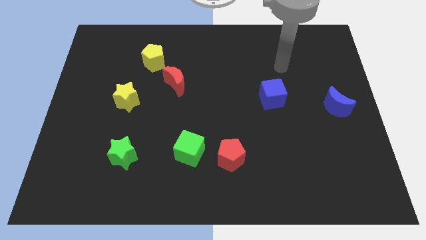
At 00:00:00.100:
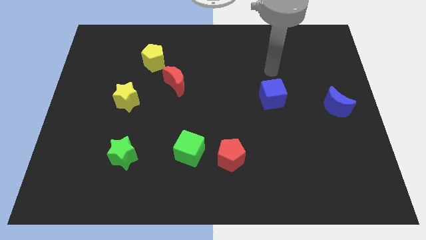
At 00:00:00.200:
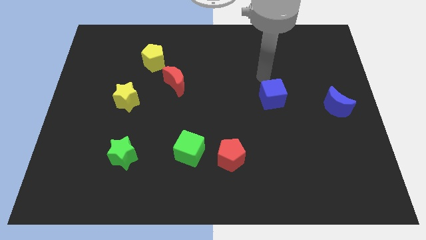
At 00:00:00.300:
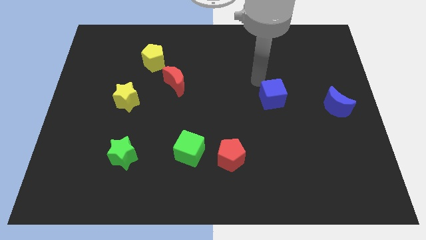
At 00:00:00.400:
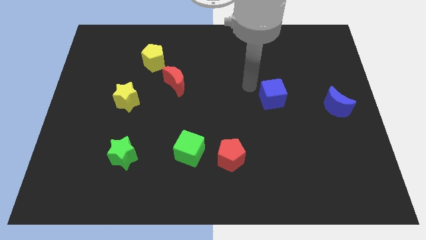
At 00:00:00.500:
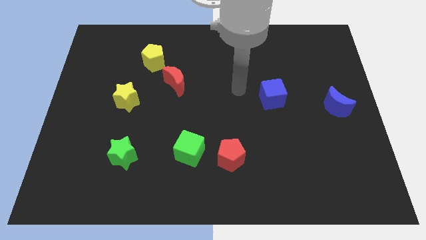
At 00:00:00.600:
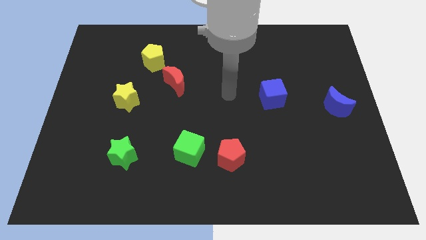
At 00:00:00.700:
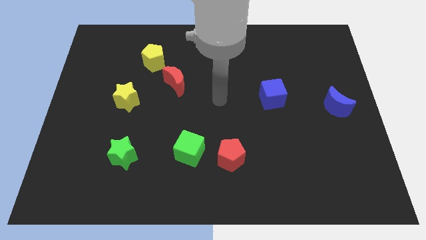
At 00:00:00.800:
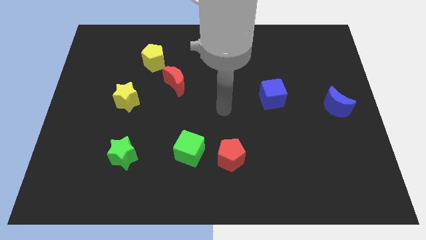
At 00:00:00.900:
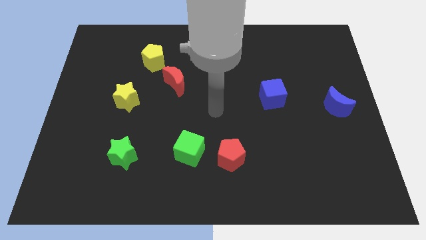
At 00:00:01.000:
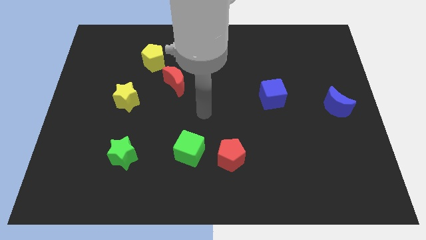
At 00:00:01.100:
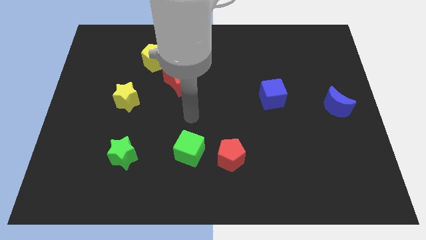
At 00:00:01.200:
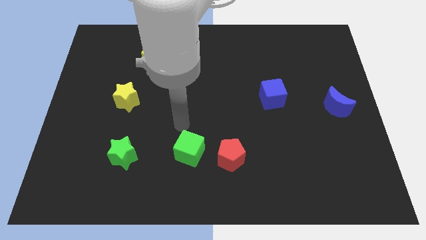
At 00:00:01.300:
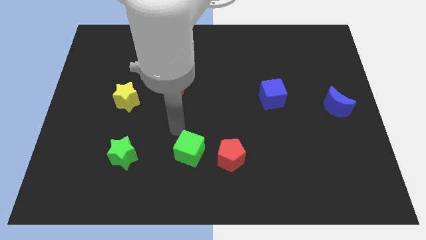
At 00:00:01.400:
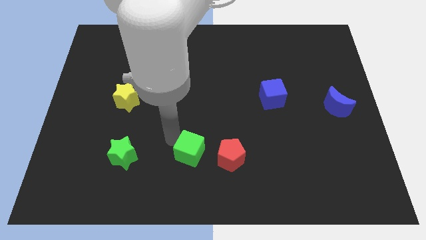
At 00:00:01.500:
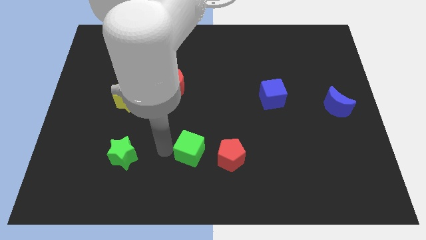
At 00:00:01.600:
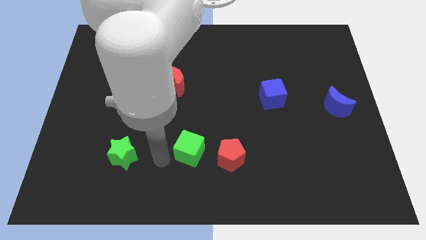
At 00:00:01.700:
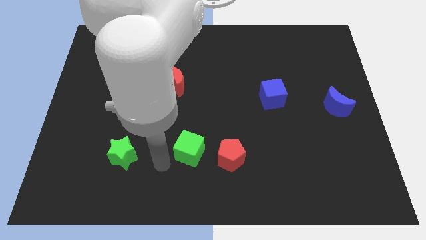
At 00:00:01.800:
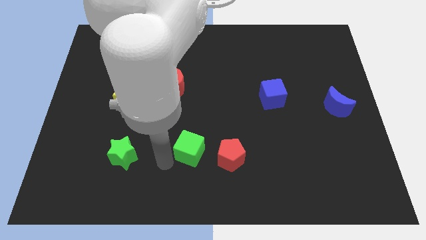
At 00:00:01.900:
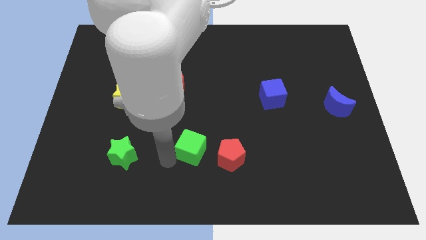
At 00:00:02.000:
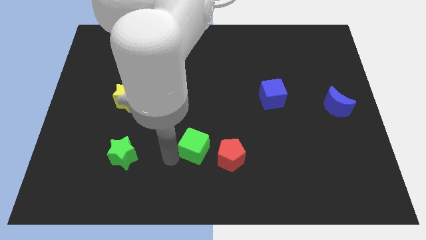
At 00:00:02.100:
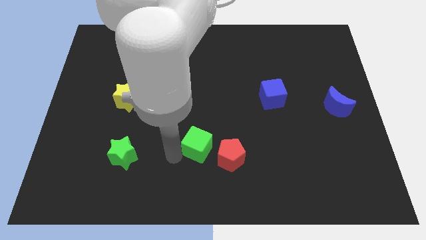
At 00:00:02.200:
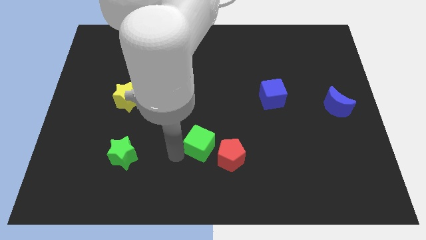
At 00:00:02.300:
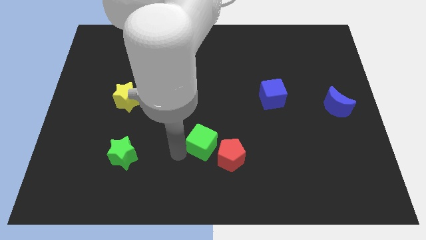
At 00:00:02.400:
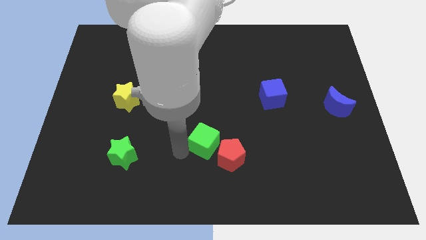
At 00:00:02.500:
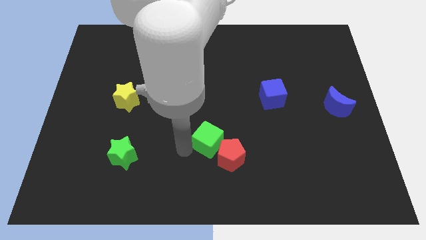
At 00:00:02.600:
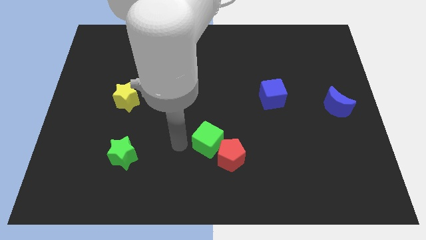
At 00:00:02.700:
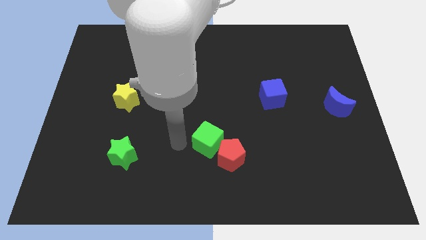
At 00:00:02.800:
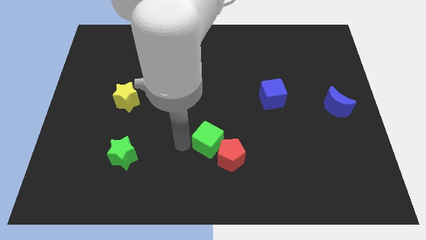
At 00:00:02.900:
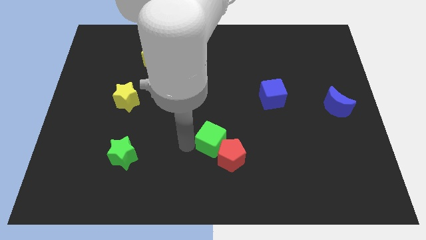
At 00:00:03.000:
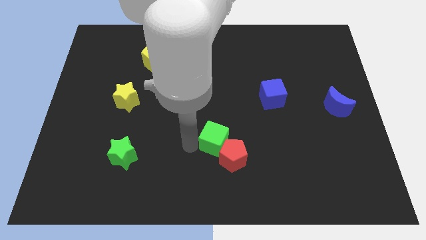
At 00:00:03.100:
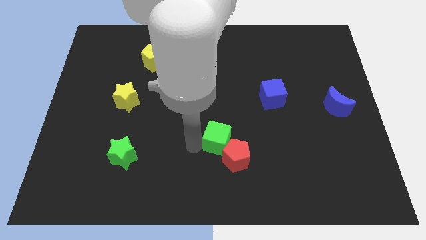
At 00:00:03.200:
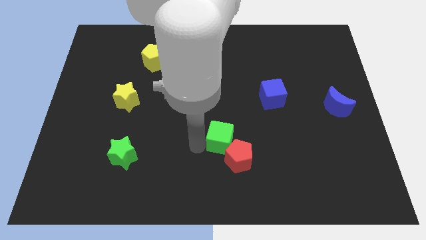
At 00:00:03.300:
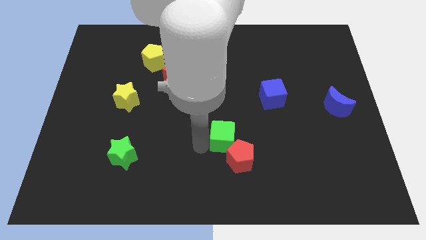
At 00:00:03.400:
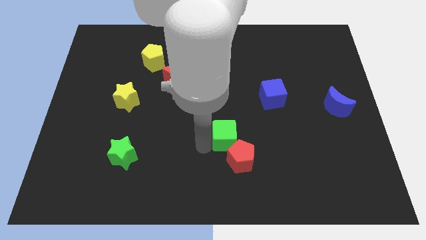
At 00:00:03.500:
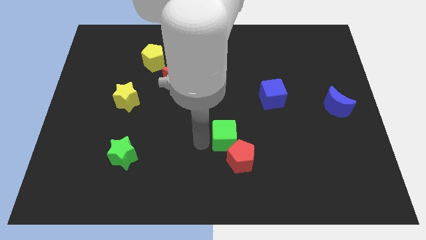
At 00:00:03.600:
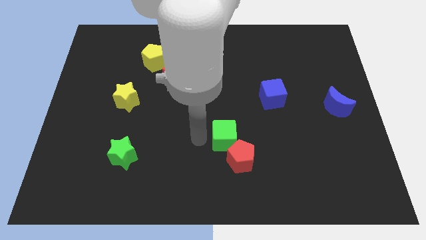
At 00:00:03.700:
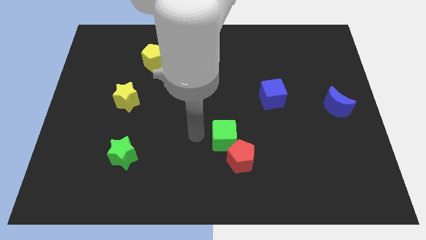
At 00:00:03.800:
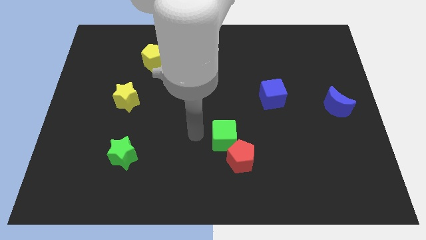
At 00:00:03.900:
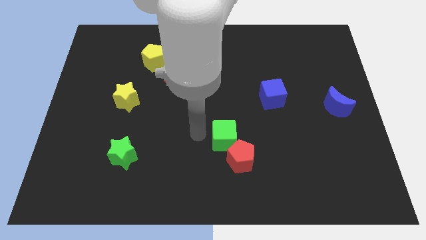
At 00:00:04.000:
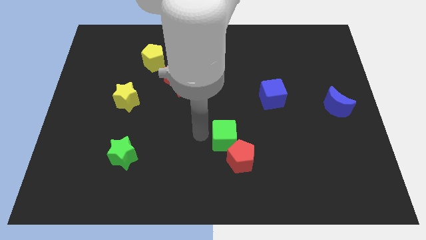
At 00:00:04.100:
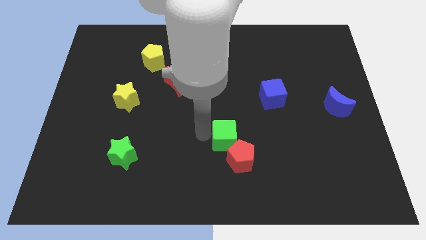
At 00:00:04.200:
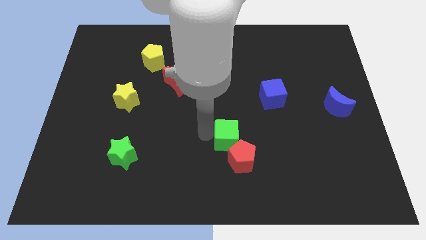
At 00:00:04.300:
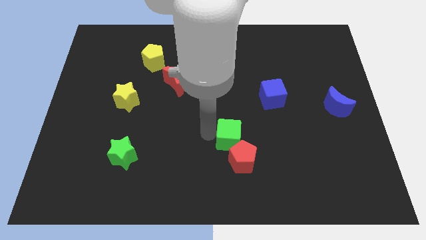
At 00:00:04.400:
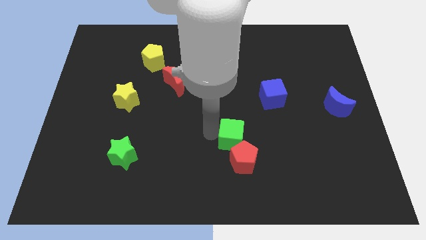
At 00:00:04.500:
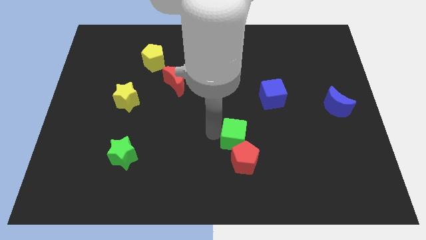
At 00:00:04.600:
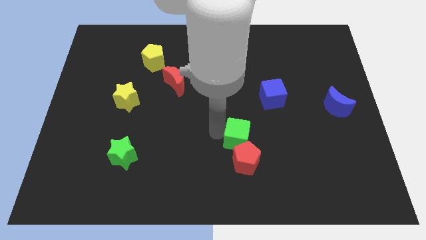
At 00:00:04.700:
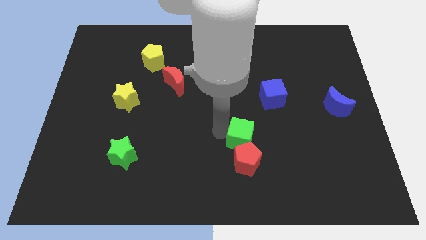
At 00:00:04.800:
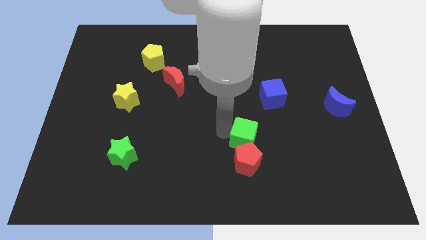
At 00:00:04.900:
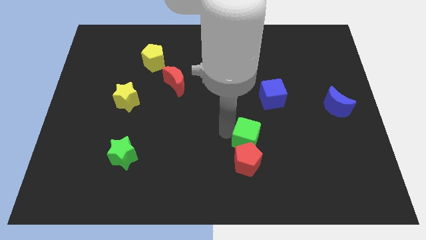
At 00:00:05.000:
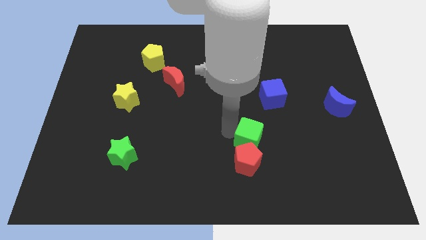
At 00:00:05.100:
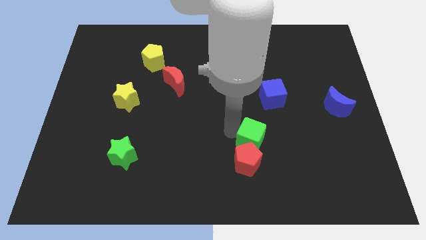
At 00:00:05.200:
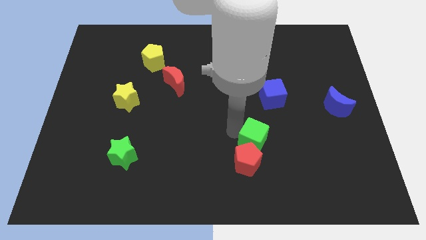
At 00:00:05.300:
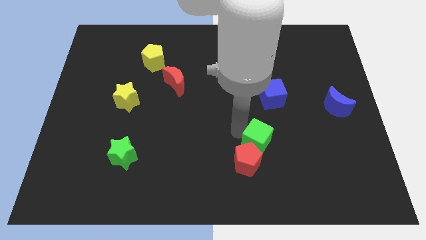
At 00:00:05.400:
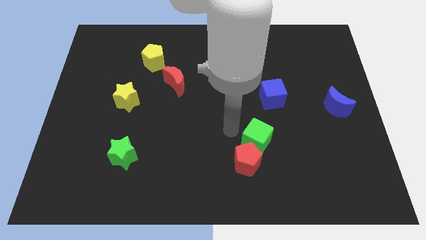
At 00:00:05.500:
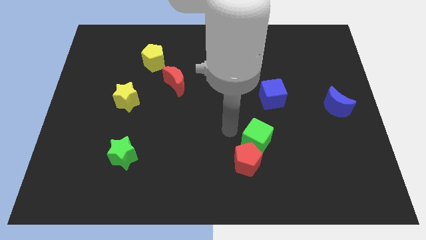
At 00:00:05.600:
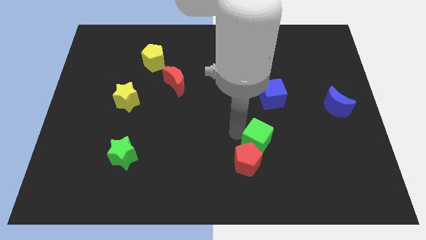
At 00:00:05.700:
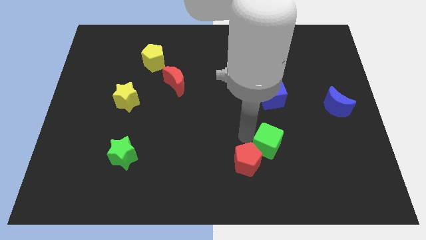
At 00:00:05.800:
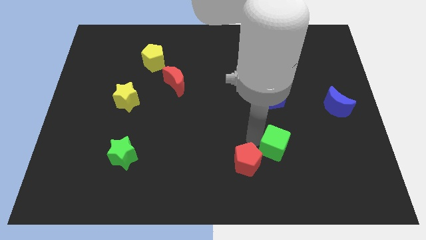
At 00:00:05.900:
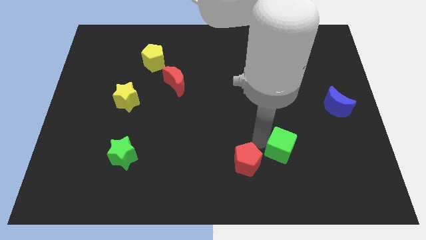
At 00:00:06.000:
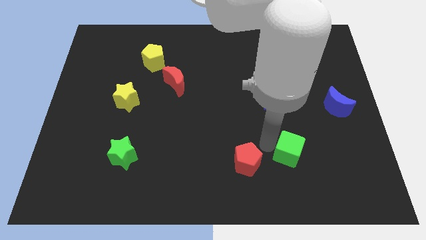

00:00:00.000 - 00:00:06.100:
push the green cube to the right

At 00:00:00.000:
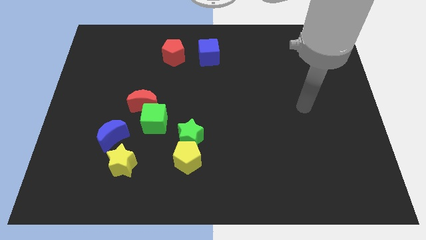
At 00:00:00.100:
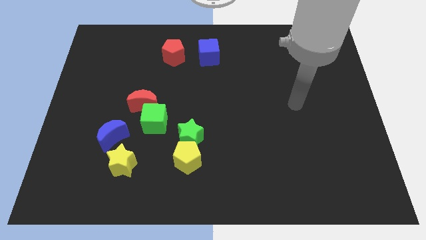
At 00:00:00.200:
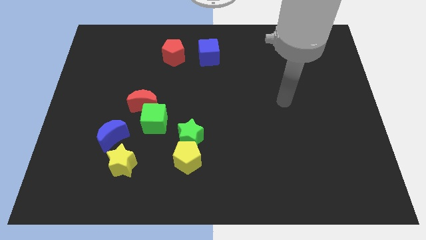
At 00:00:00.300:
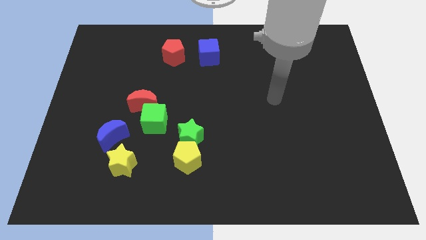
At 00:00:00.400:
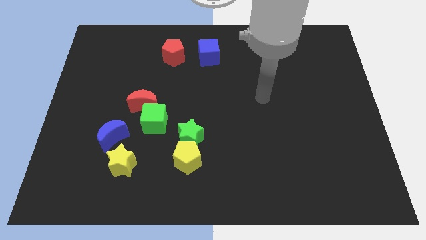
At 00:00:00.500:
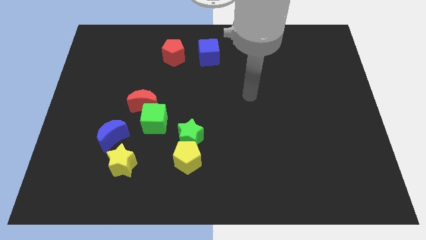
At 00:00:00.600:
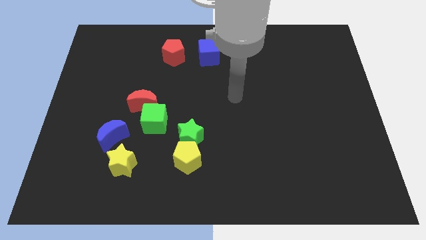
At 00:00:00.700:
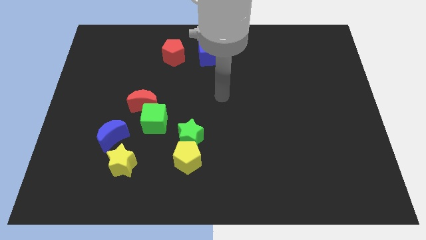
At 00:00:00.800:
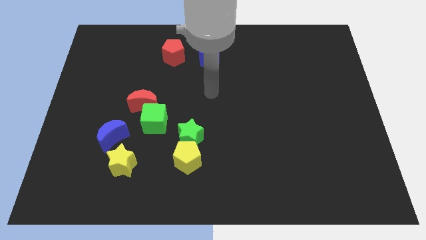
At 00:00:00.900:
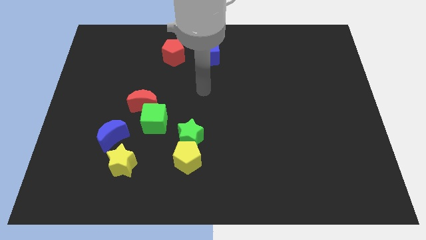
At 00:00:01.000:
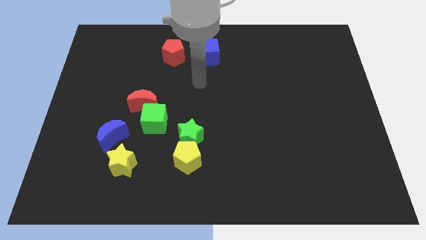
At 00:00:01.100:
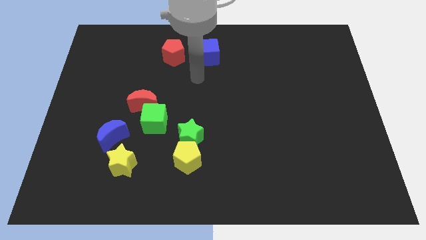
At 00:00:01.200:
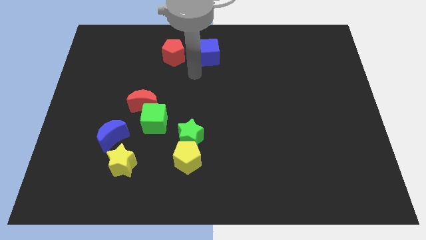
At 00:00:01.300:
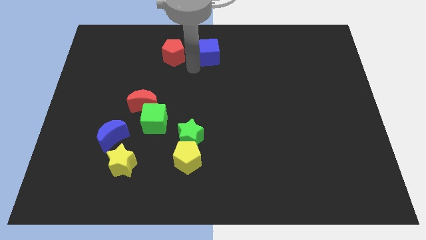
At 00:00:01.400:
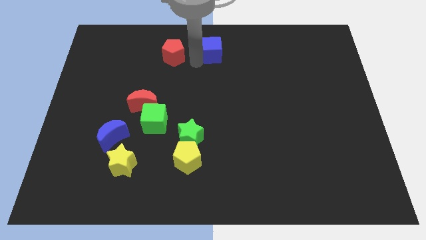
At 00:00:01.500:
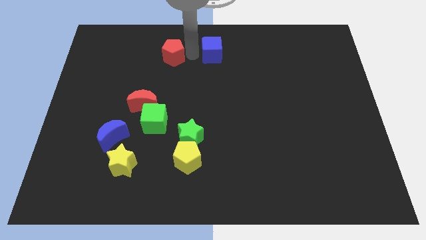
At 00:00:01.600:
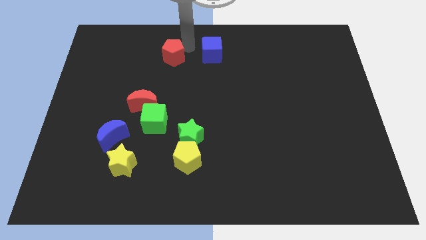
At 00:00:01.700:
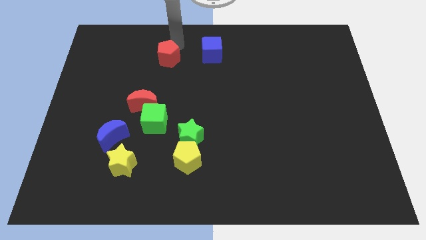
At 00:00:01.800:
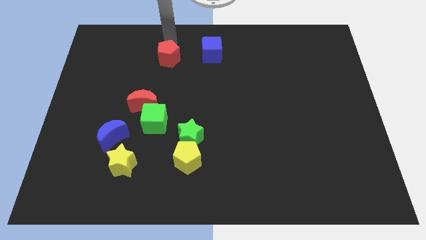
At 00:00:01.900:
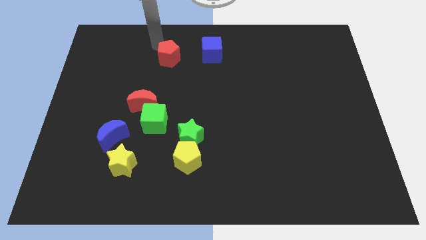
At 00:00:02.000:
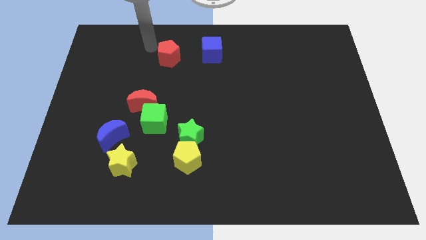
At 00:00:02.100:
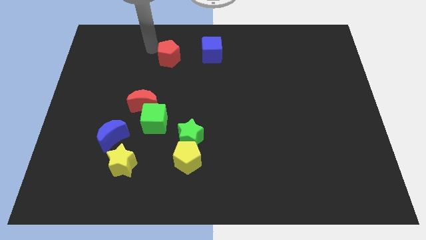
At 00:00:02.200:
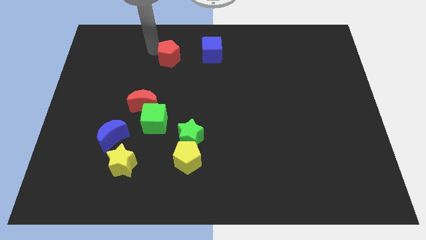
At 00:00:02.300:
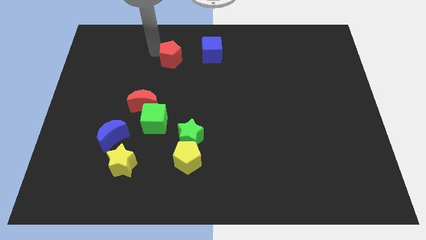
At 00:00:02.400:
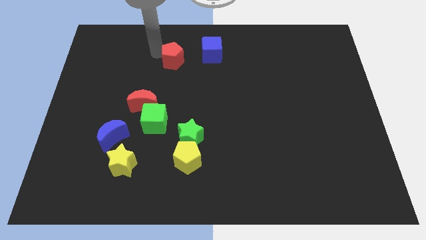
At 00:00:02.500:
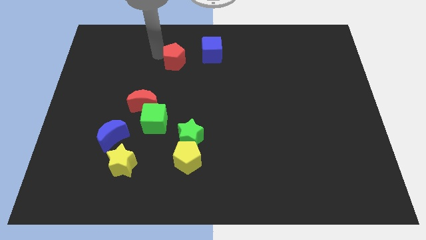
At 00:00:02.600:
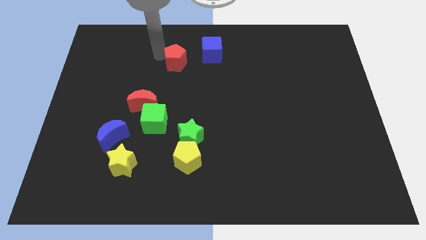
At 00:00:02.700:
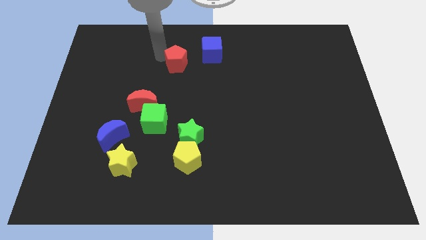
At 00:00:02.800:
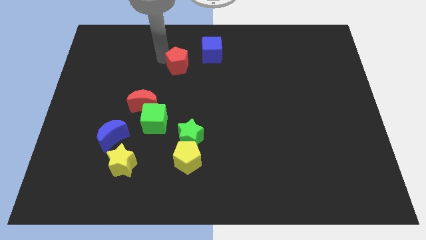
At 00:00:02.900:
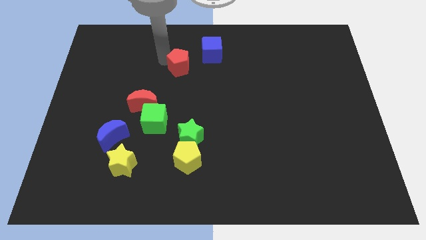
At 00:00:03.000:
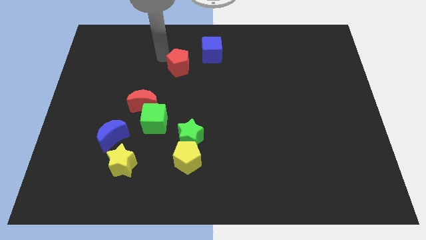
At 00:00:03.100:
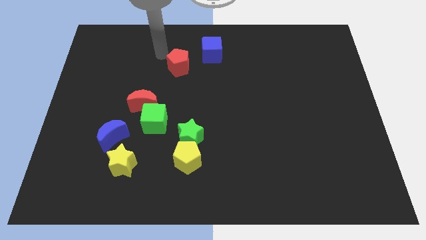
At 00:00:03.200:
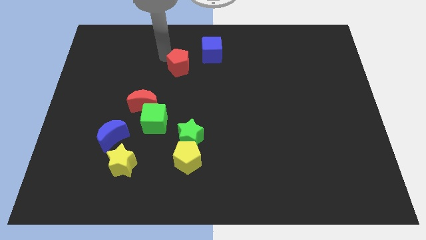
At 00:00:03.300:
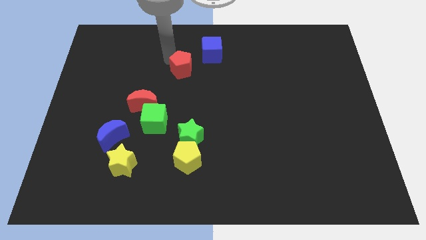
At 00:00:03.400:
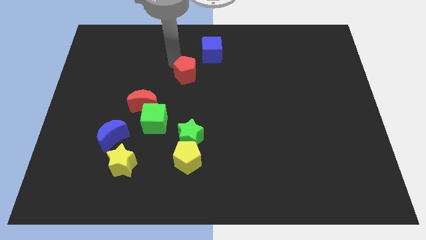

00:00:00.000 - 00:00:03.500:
slightly push the red pentagon downwards and right
